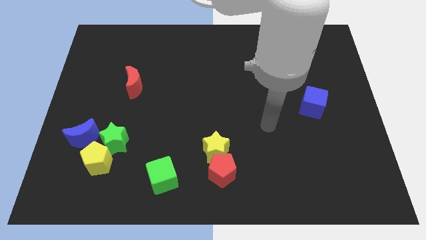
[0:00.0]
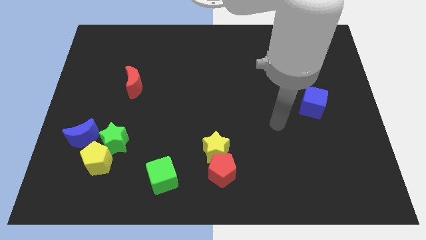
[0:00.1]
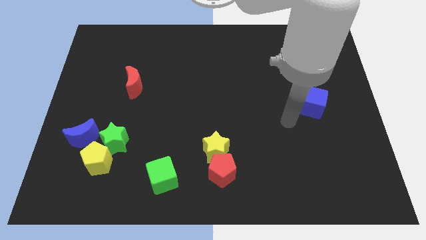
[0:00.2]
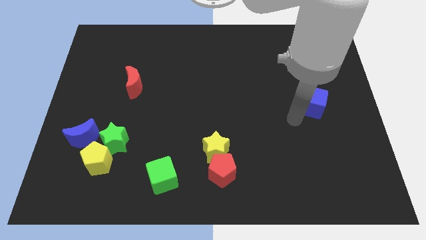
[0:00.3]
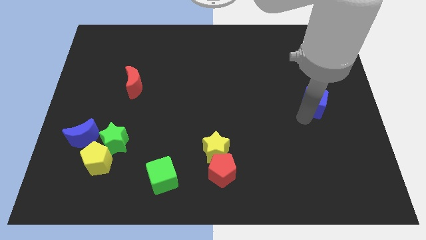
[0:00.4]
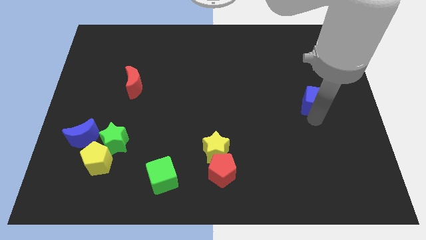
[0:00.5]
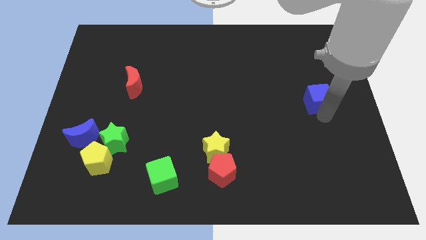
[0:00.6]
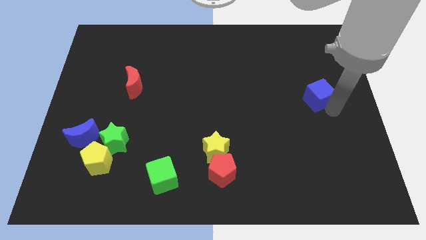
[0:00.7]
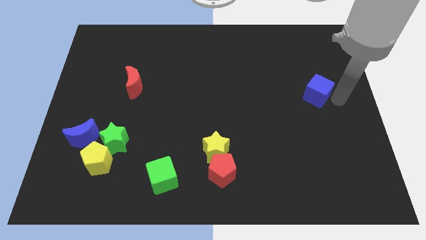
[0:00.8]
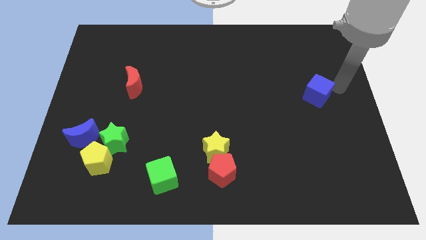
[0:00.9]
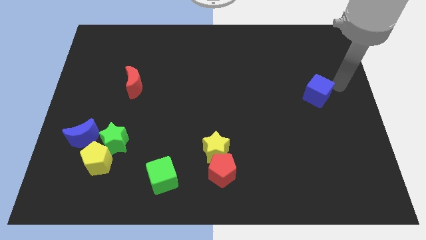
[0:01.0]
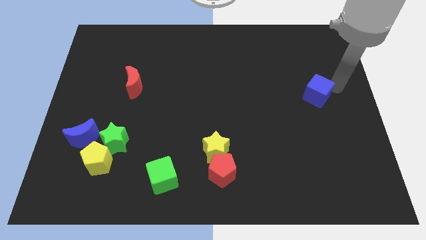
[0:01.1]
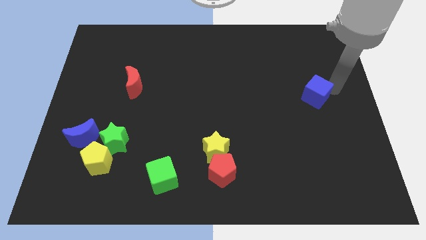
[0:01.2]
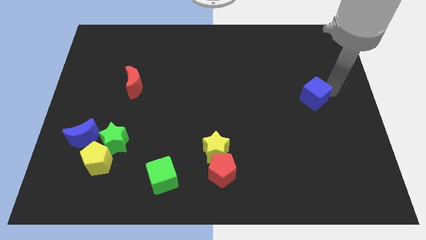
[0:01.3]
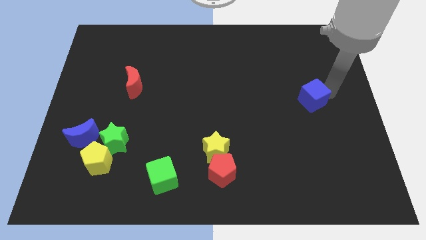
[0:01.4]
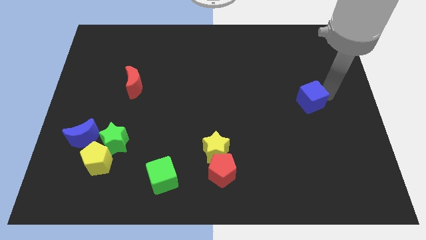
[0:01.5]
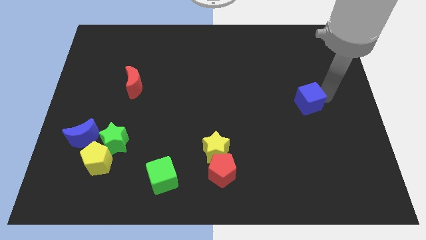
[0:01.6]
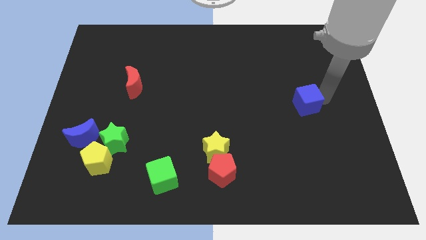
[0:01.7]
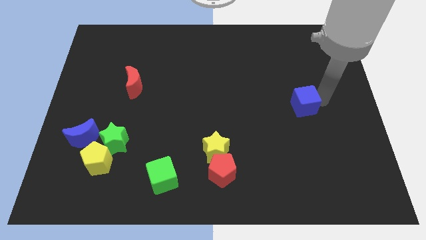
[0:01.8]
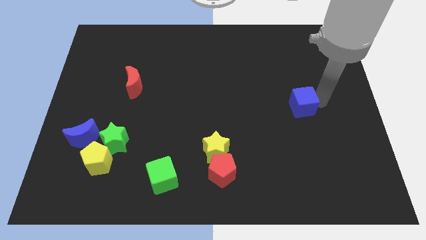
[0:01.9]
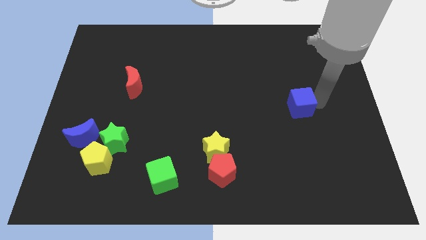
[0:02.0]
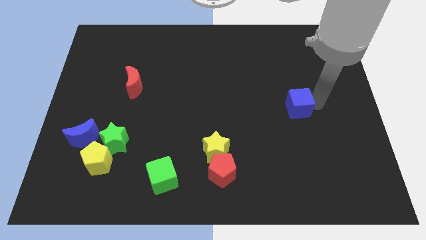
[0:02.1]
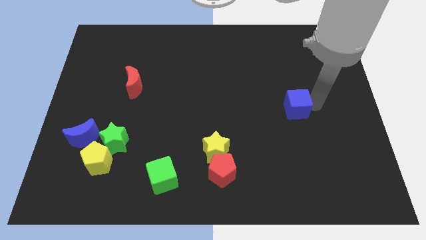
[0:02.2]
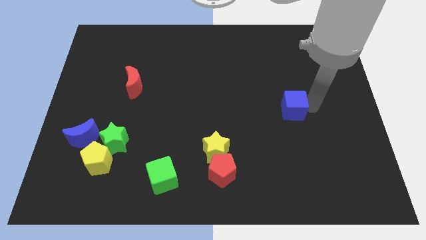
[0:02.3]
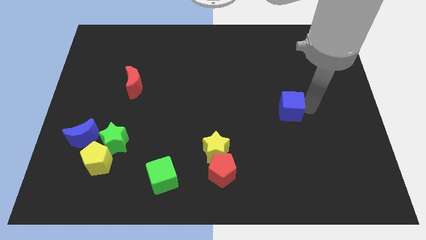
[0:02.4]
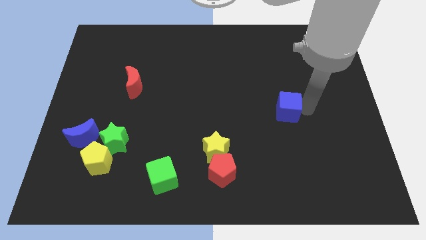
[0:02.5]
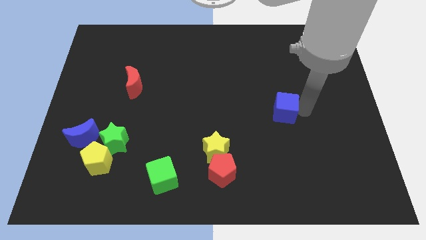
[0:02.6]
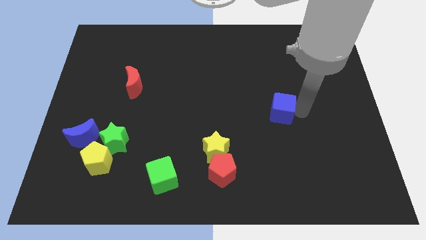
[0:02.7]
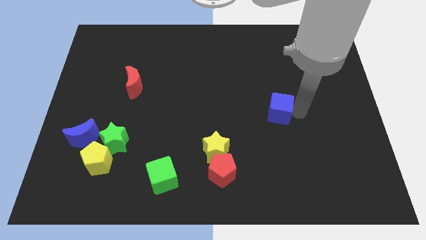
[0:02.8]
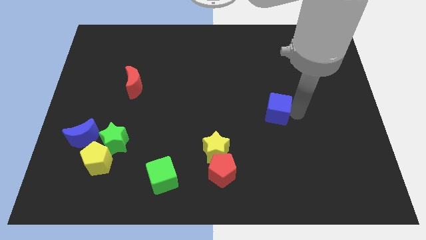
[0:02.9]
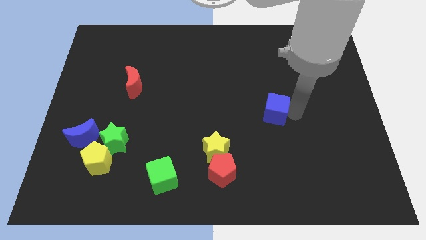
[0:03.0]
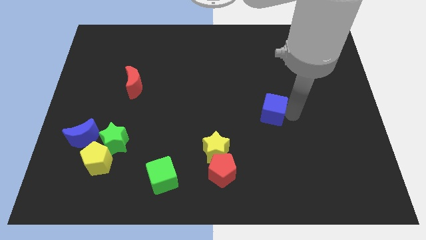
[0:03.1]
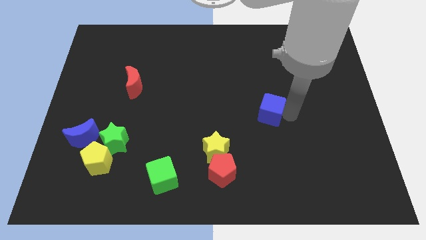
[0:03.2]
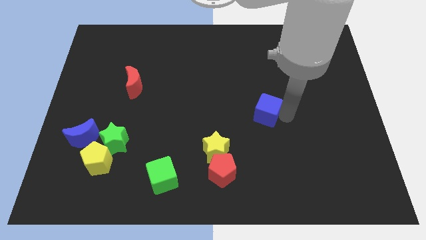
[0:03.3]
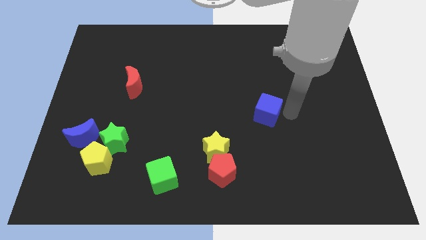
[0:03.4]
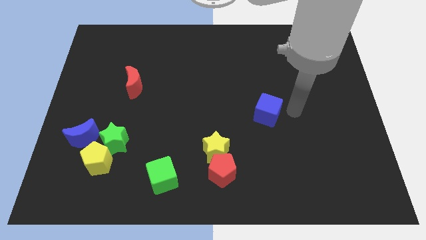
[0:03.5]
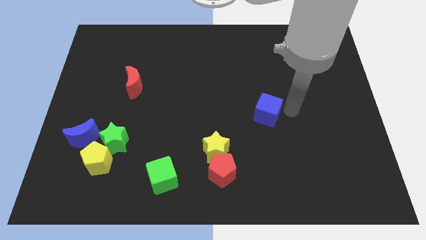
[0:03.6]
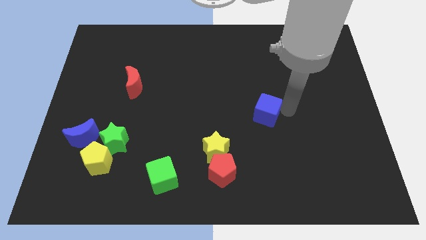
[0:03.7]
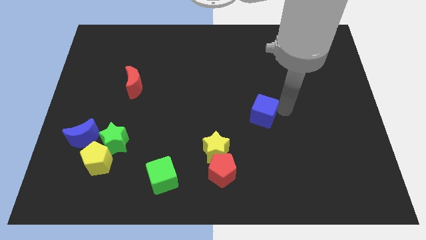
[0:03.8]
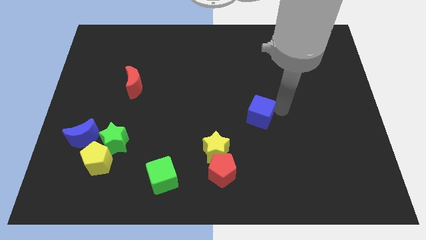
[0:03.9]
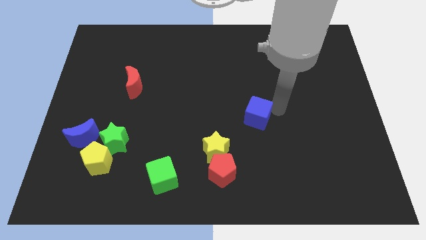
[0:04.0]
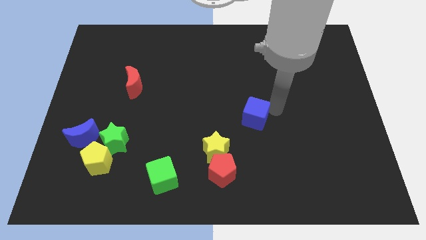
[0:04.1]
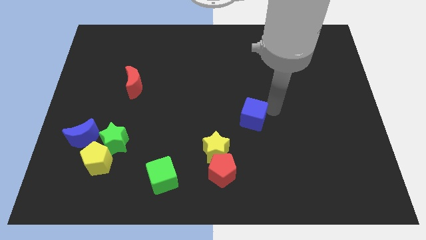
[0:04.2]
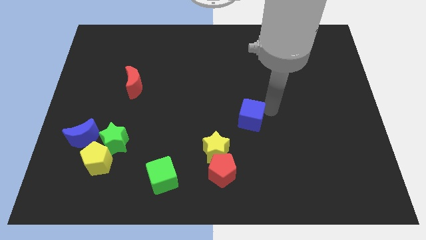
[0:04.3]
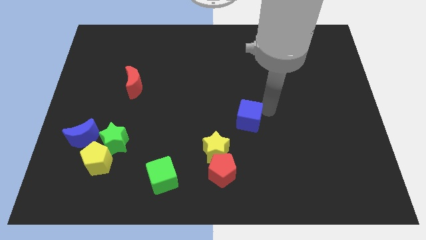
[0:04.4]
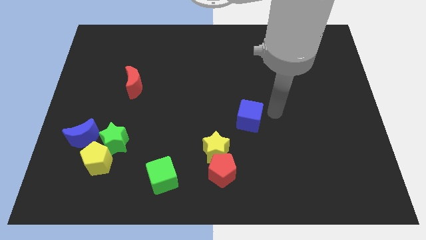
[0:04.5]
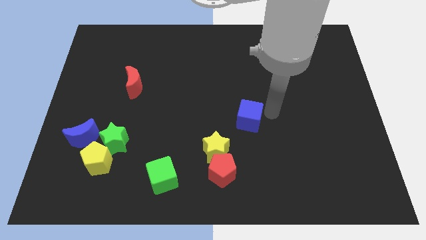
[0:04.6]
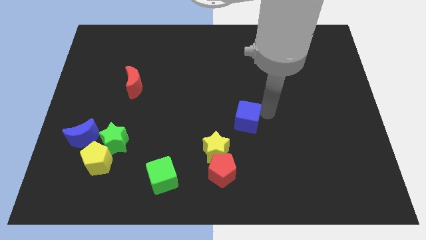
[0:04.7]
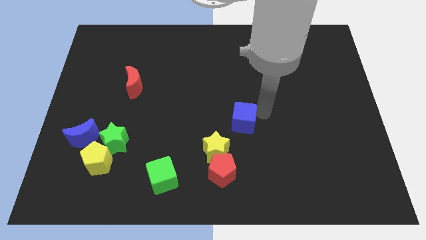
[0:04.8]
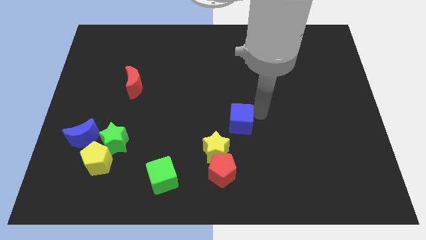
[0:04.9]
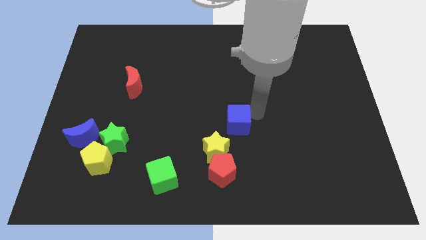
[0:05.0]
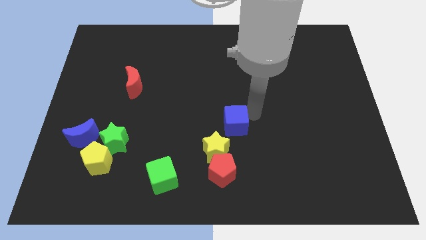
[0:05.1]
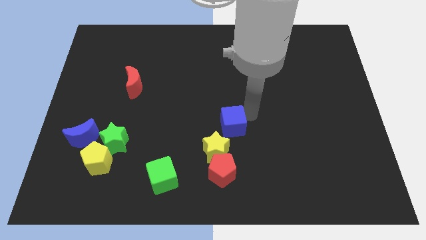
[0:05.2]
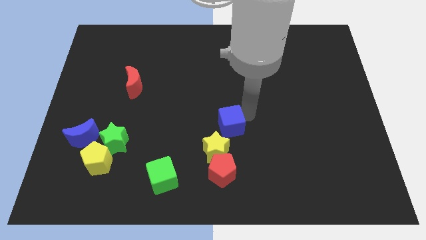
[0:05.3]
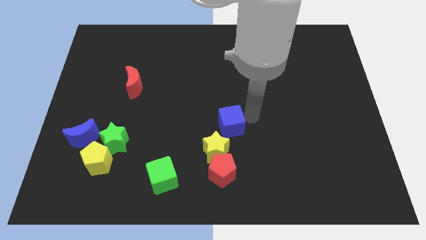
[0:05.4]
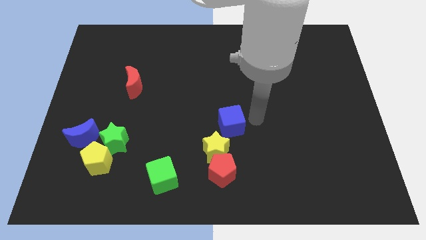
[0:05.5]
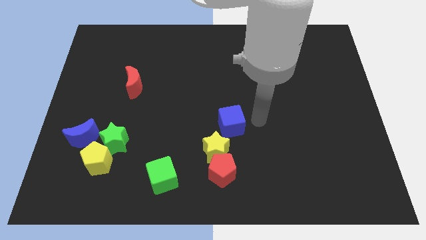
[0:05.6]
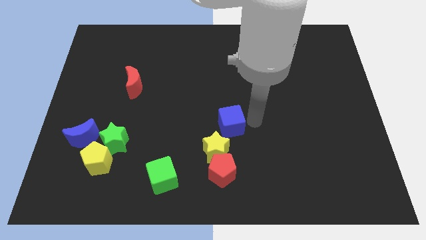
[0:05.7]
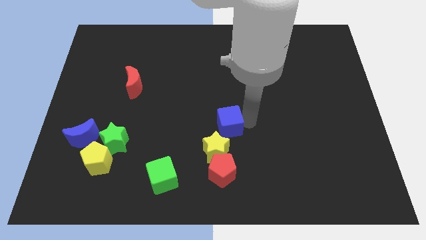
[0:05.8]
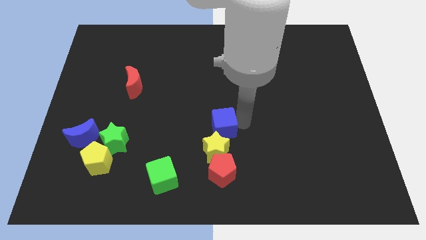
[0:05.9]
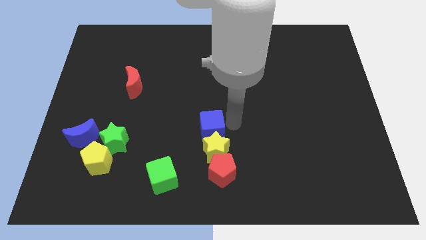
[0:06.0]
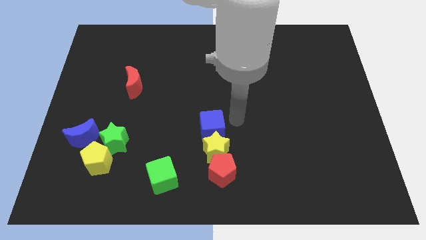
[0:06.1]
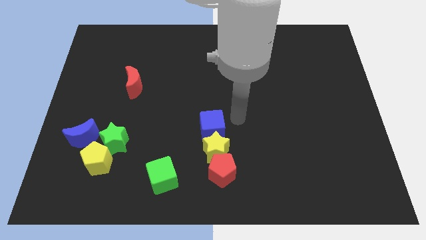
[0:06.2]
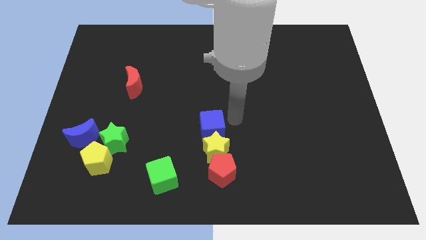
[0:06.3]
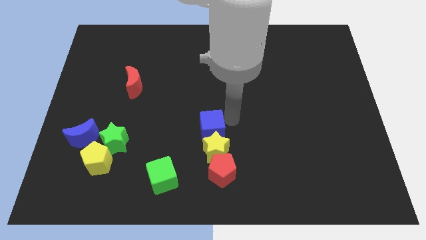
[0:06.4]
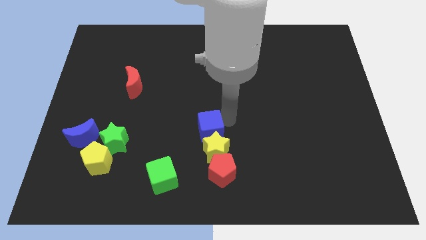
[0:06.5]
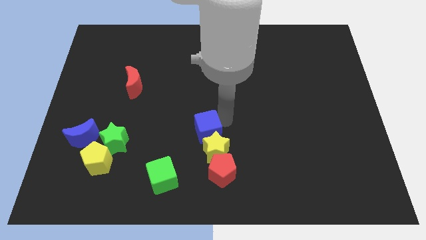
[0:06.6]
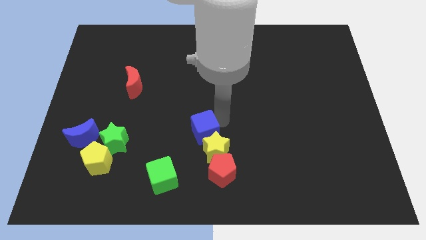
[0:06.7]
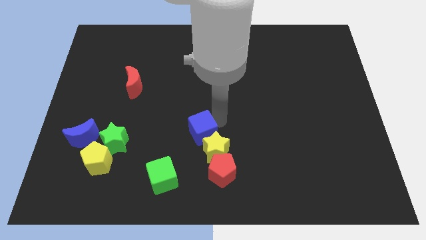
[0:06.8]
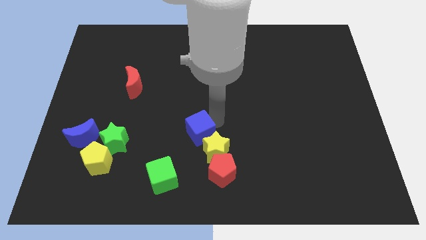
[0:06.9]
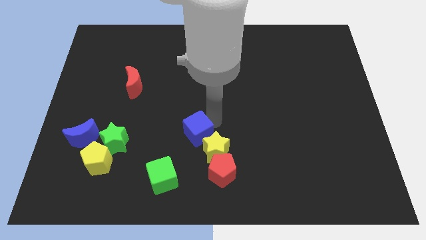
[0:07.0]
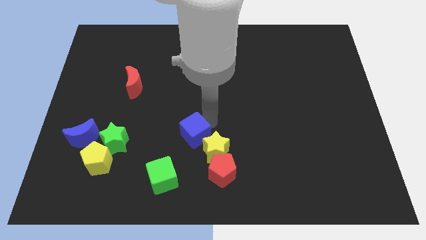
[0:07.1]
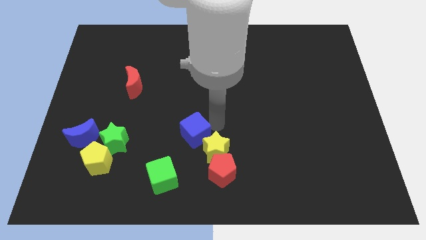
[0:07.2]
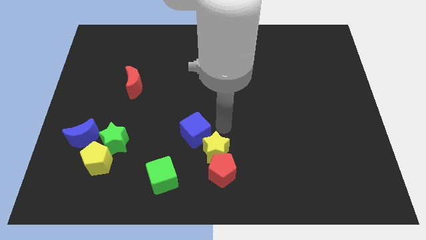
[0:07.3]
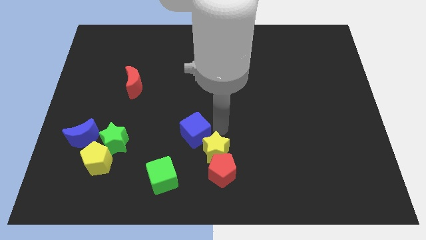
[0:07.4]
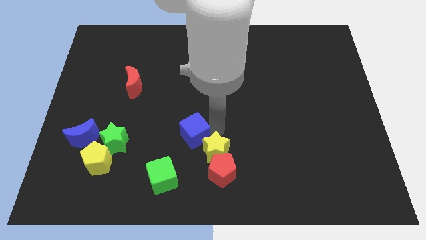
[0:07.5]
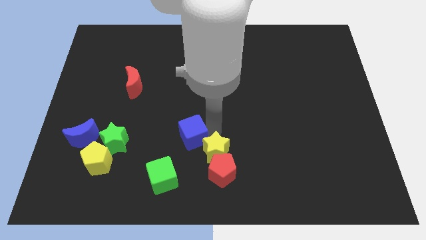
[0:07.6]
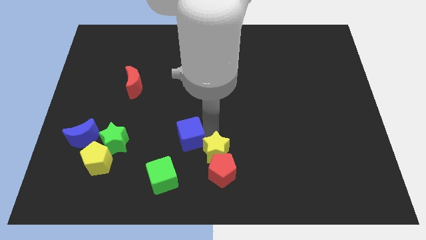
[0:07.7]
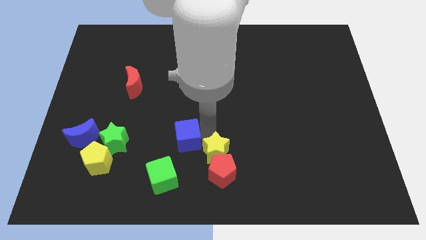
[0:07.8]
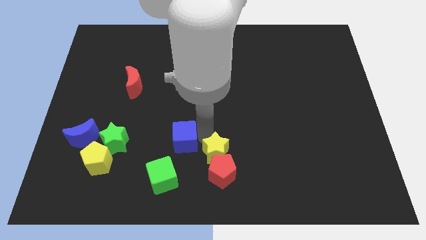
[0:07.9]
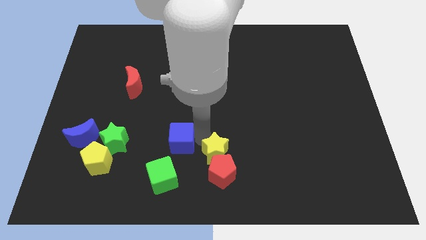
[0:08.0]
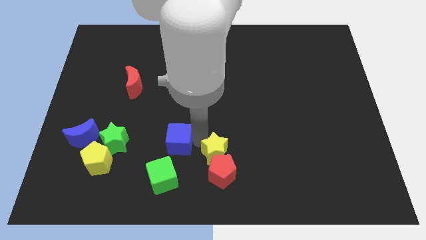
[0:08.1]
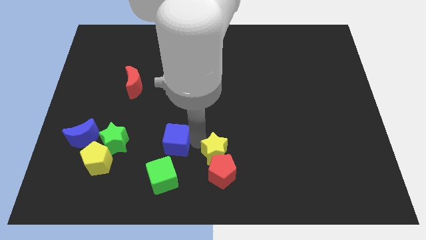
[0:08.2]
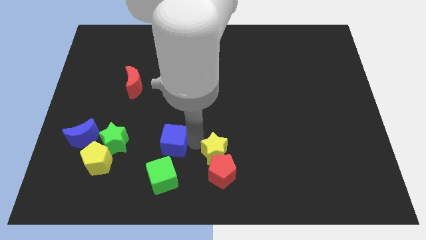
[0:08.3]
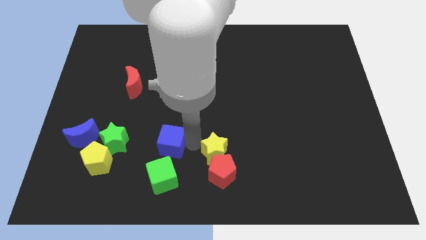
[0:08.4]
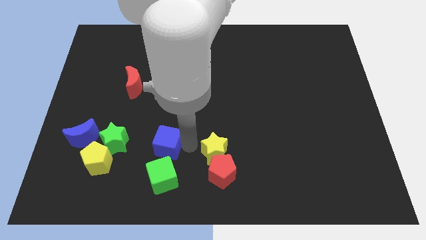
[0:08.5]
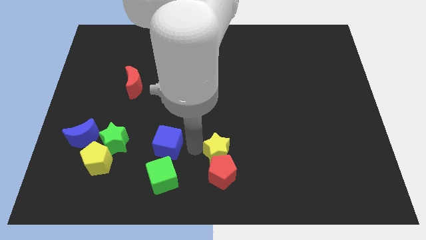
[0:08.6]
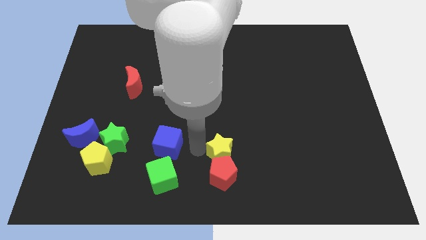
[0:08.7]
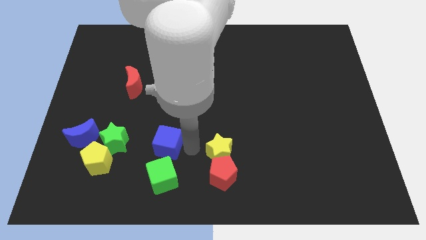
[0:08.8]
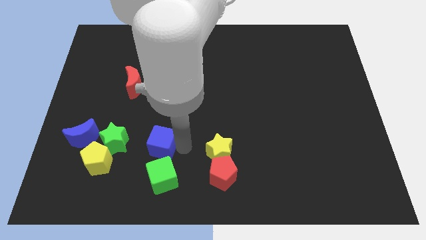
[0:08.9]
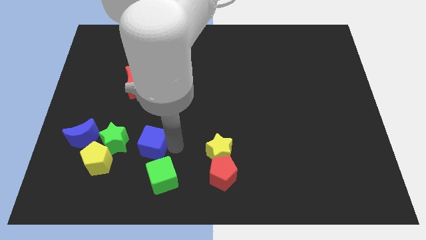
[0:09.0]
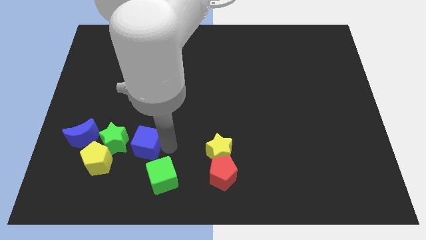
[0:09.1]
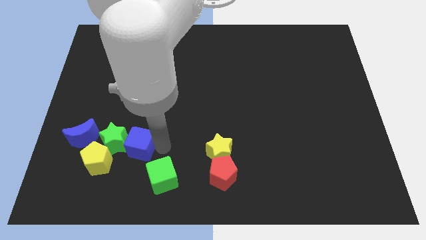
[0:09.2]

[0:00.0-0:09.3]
push the blue cube towards the green star
